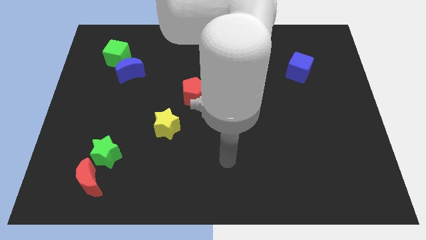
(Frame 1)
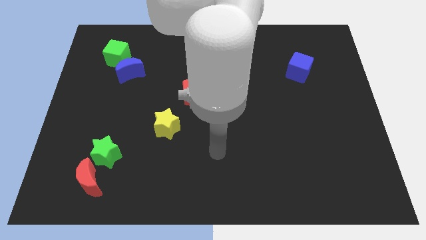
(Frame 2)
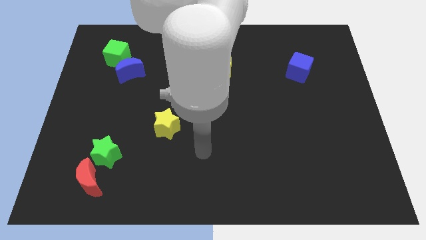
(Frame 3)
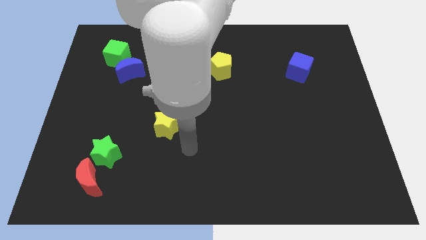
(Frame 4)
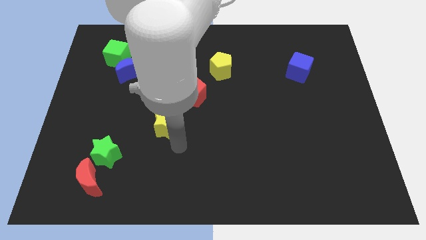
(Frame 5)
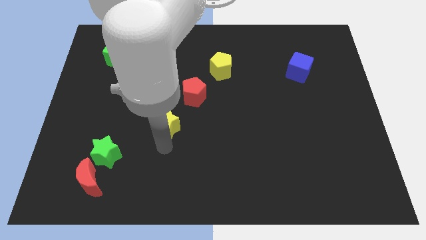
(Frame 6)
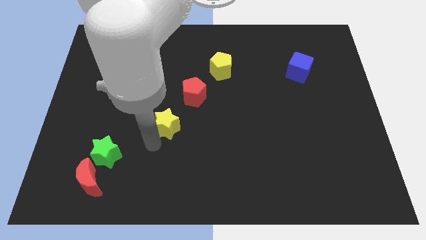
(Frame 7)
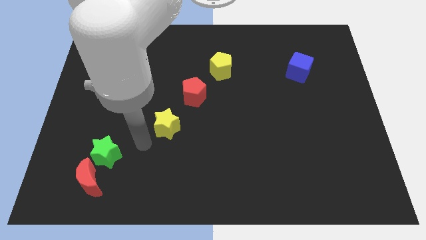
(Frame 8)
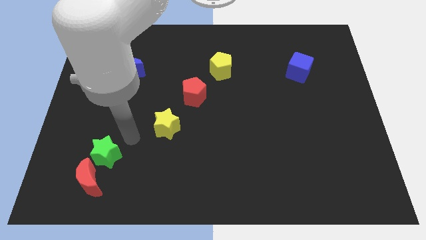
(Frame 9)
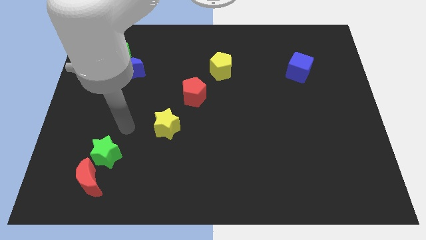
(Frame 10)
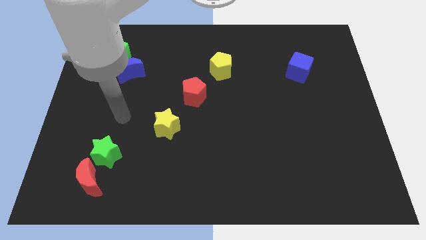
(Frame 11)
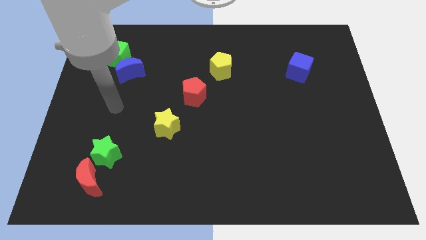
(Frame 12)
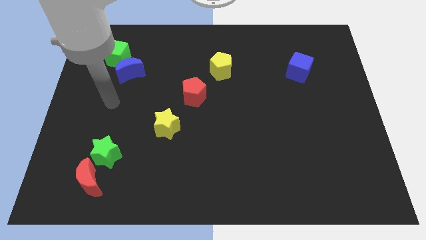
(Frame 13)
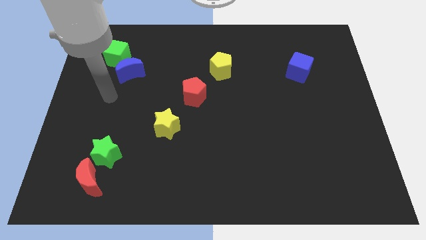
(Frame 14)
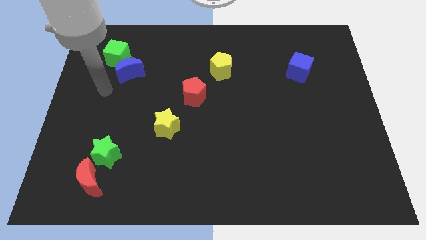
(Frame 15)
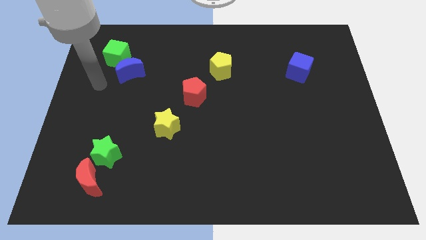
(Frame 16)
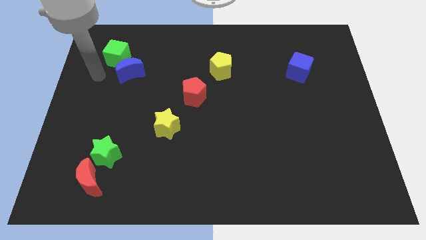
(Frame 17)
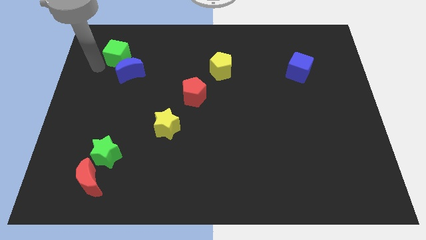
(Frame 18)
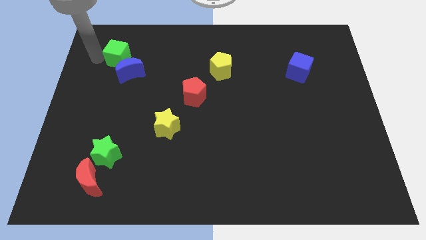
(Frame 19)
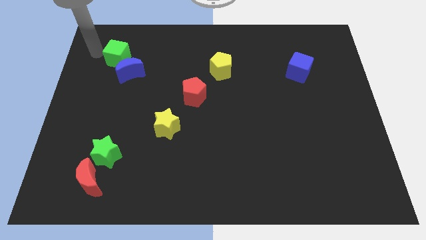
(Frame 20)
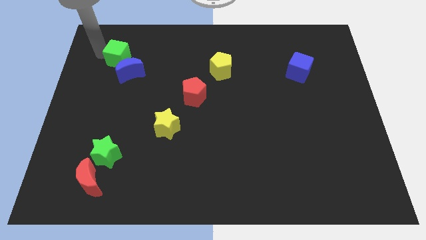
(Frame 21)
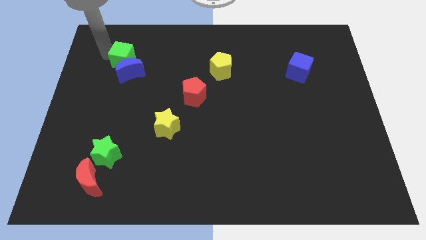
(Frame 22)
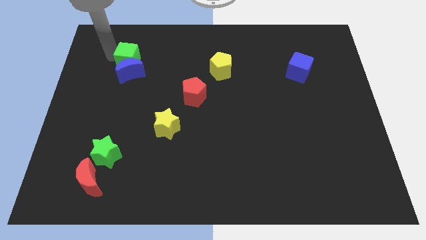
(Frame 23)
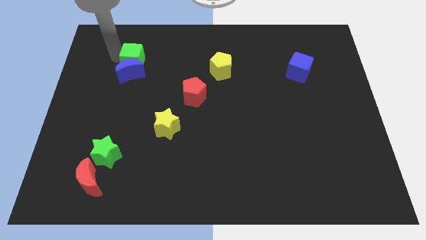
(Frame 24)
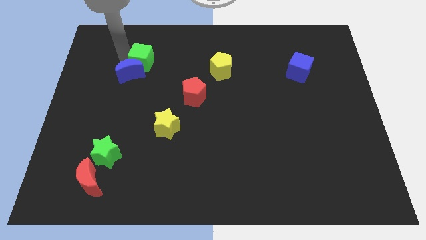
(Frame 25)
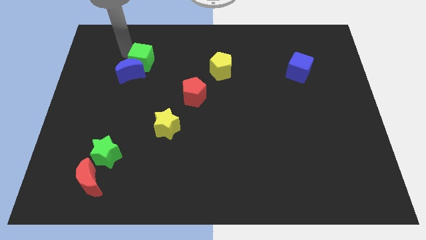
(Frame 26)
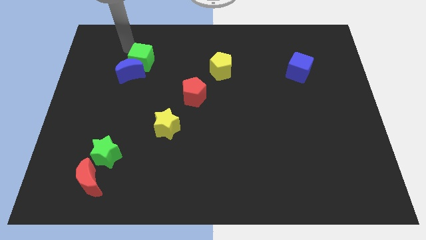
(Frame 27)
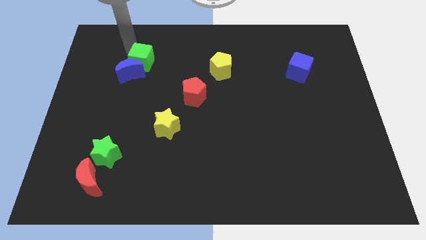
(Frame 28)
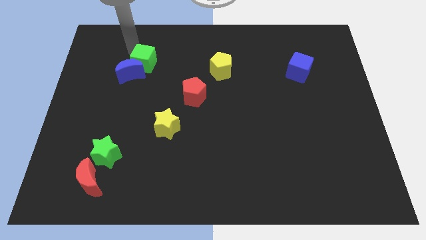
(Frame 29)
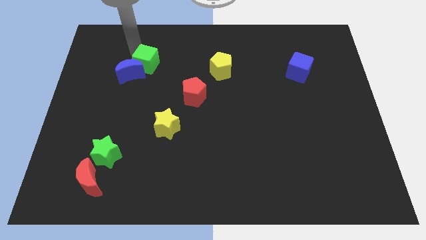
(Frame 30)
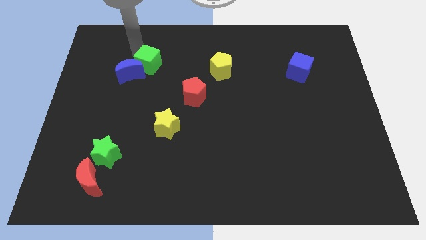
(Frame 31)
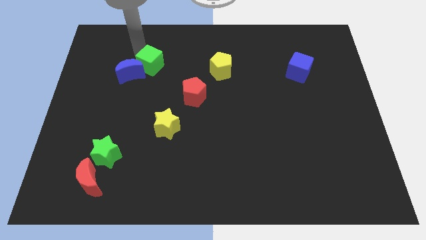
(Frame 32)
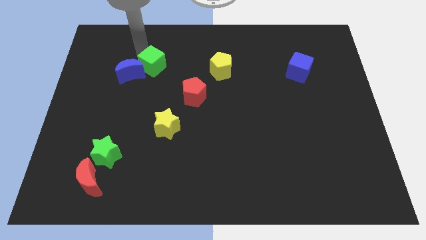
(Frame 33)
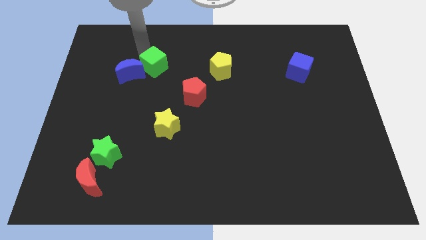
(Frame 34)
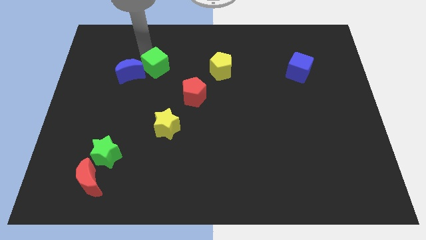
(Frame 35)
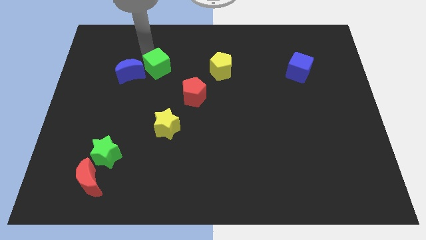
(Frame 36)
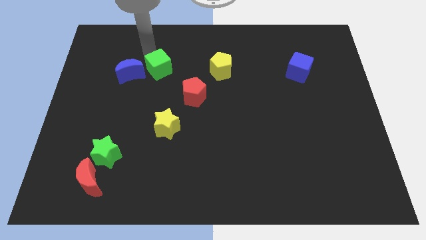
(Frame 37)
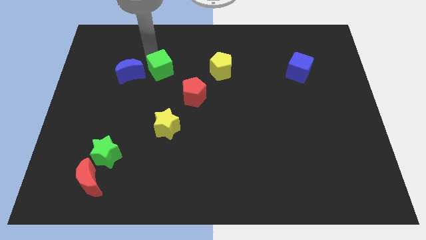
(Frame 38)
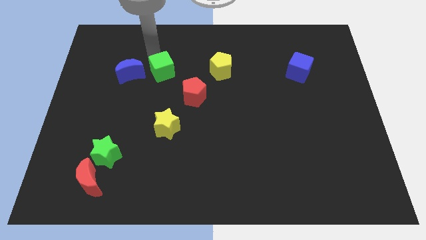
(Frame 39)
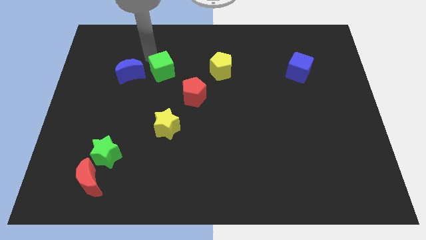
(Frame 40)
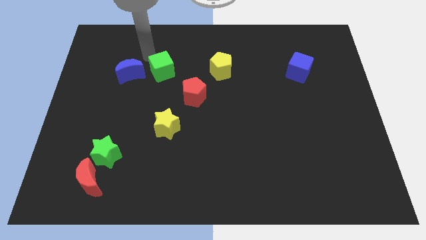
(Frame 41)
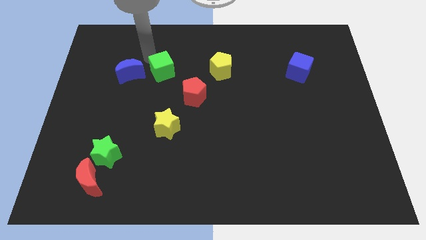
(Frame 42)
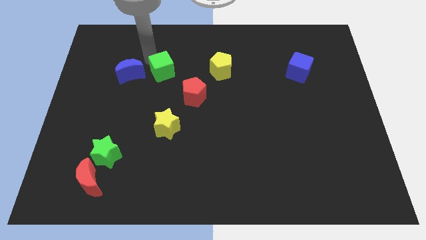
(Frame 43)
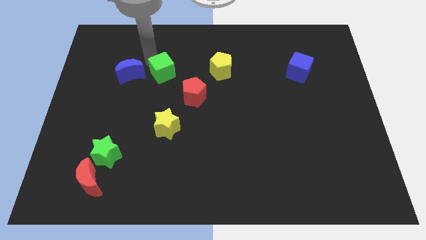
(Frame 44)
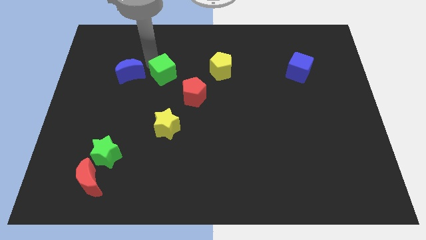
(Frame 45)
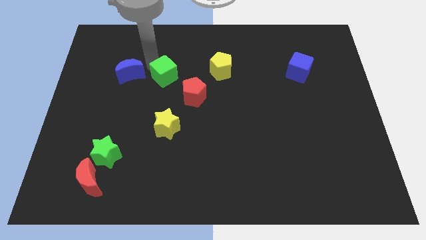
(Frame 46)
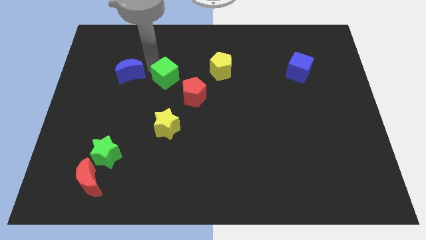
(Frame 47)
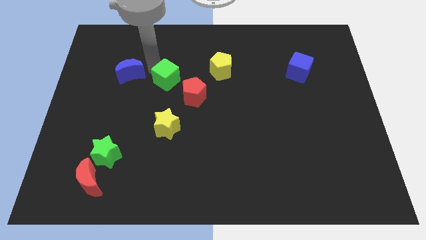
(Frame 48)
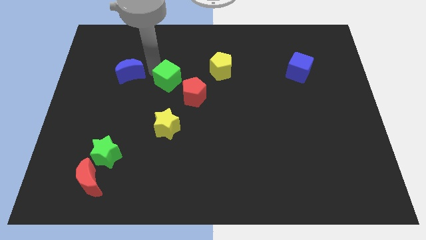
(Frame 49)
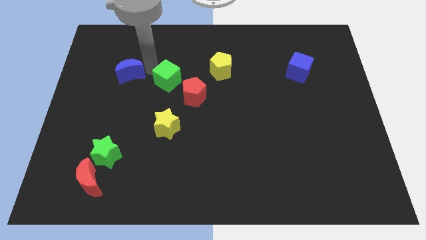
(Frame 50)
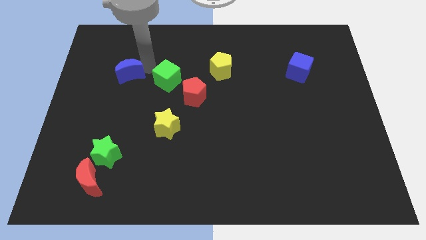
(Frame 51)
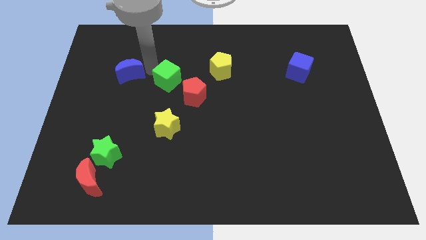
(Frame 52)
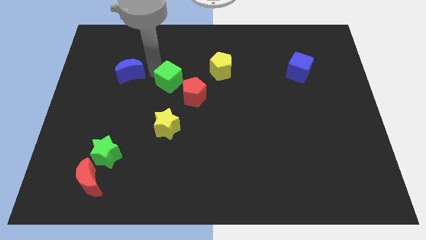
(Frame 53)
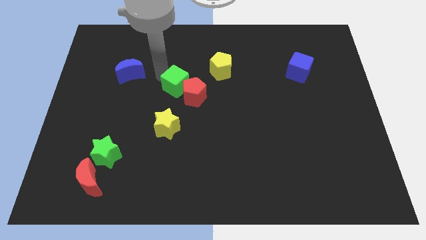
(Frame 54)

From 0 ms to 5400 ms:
put the green cube close to the red pentagon

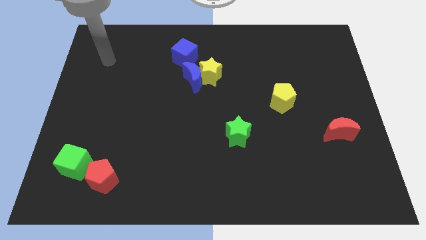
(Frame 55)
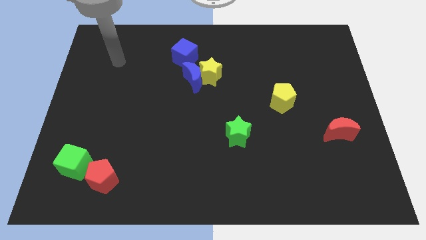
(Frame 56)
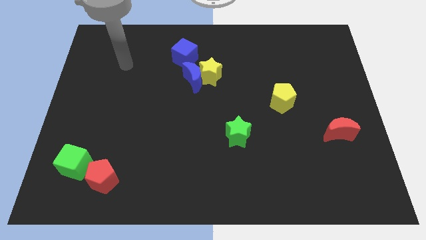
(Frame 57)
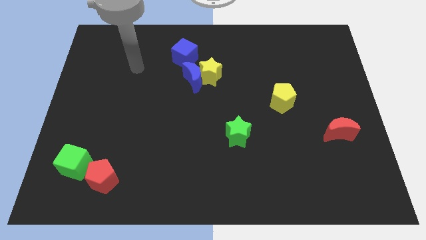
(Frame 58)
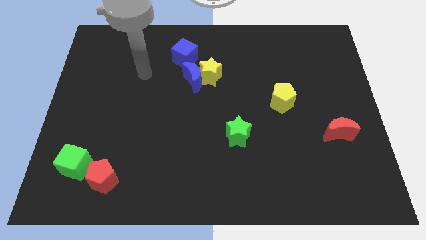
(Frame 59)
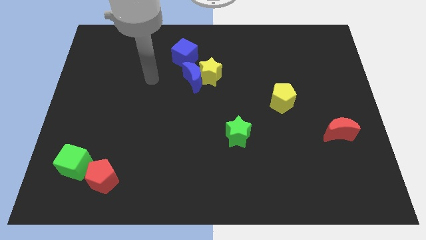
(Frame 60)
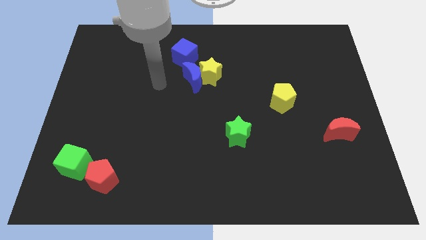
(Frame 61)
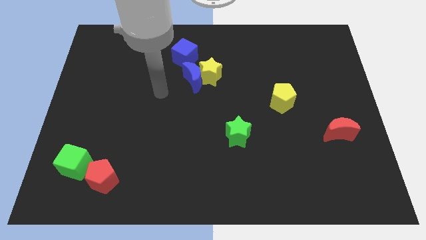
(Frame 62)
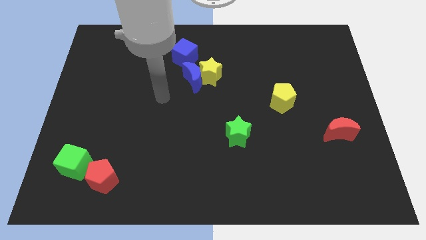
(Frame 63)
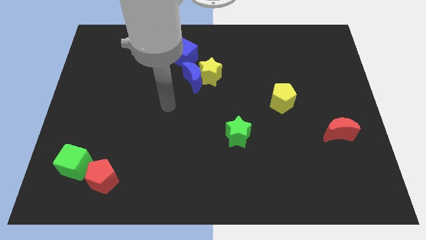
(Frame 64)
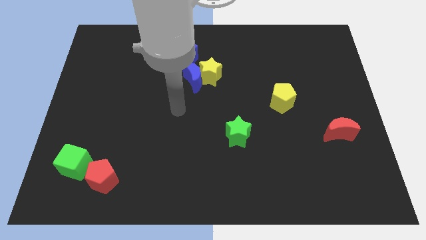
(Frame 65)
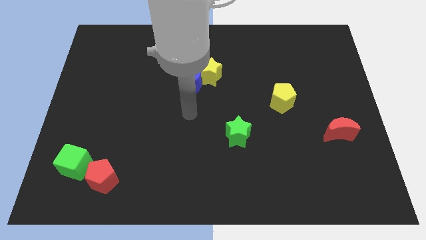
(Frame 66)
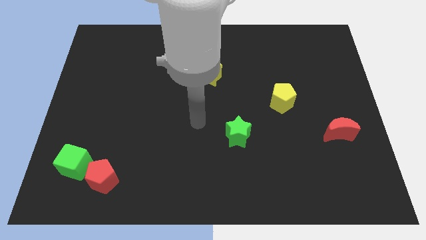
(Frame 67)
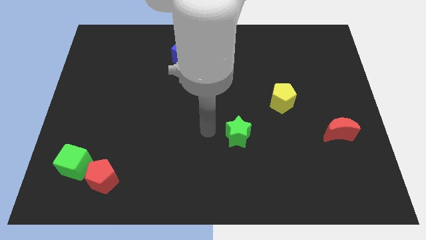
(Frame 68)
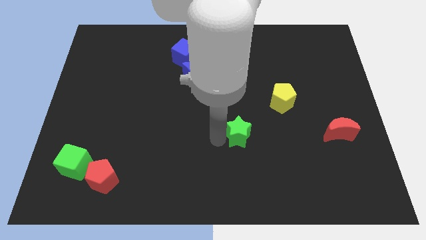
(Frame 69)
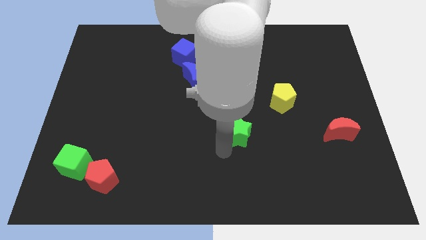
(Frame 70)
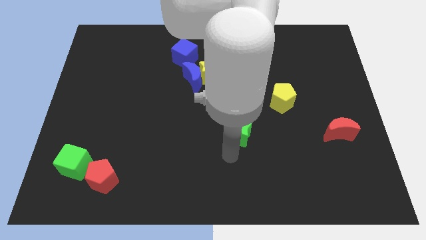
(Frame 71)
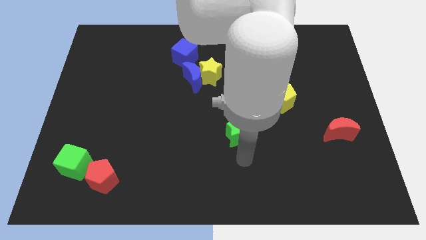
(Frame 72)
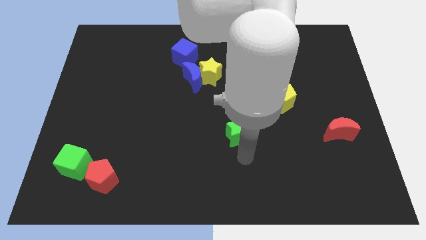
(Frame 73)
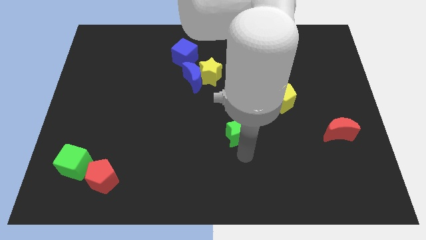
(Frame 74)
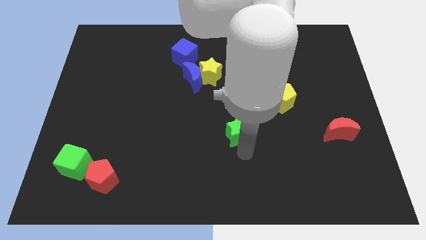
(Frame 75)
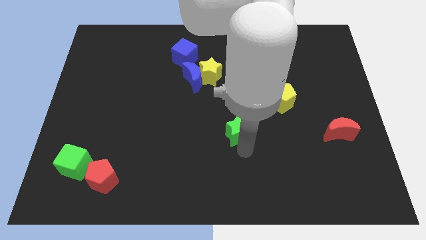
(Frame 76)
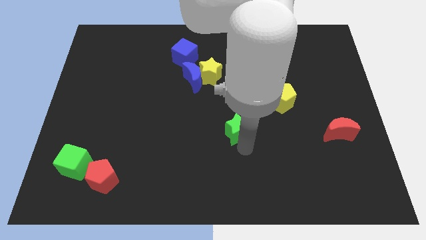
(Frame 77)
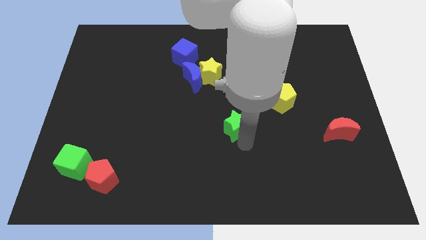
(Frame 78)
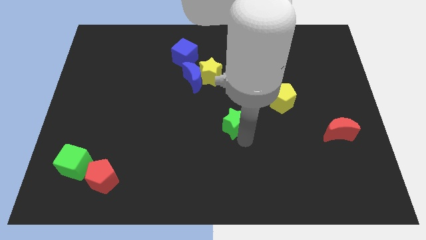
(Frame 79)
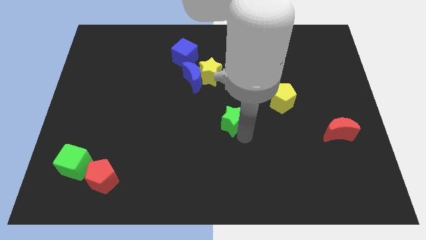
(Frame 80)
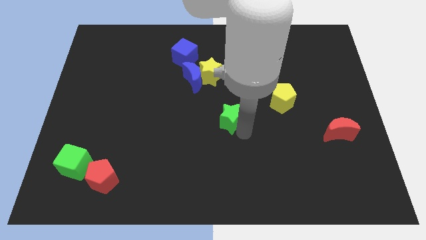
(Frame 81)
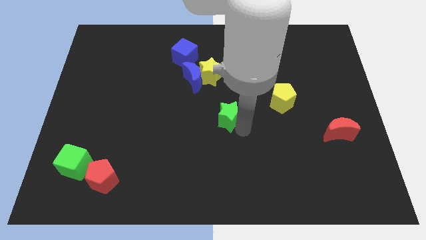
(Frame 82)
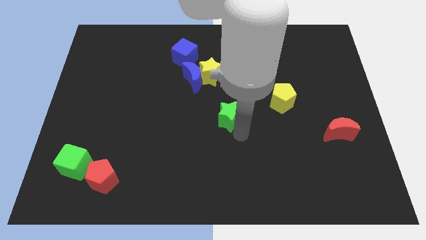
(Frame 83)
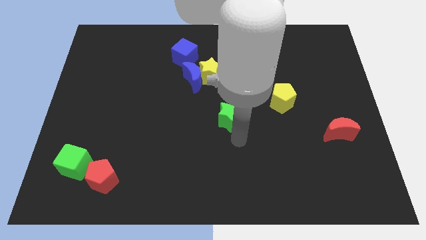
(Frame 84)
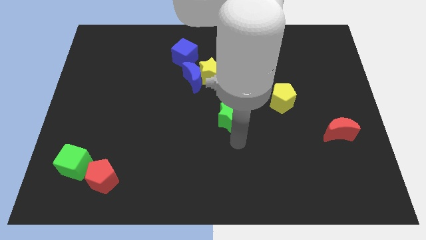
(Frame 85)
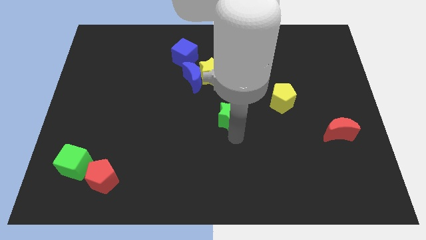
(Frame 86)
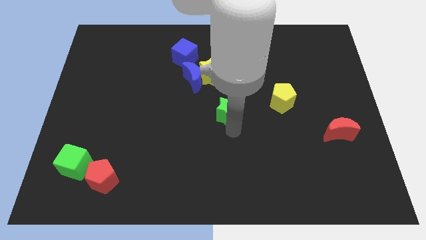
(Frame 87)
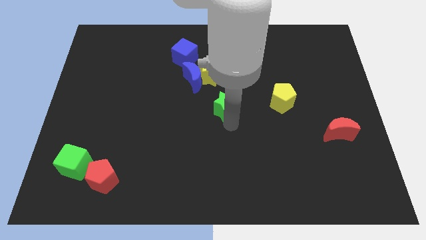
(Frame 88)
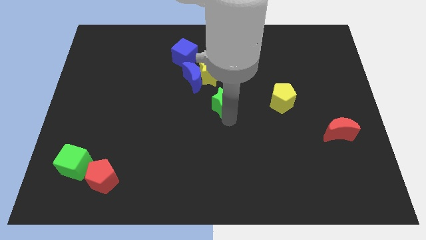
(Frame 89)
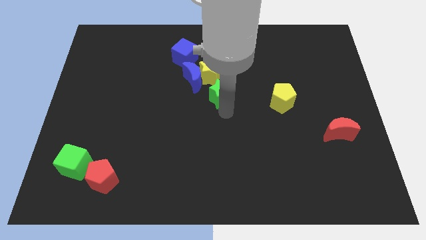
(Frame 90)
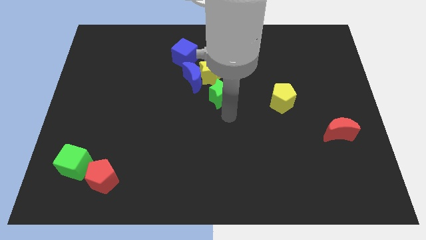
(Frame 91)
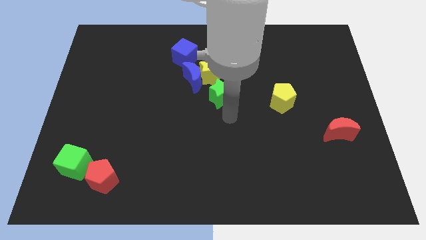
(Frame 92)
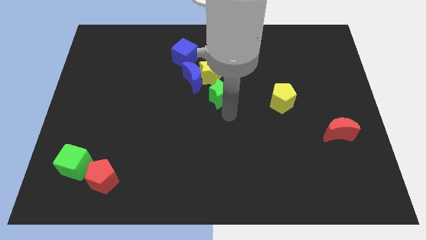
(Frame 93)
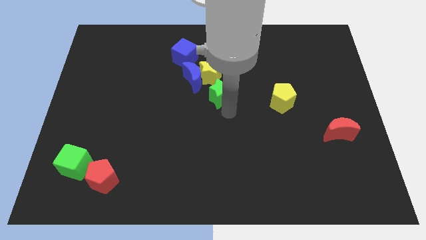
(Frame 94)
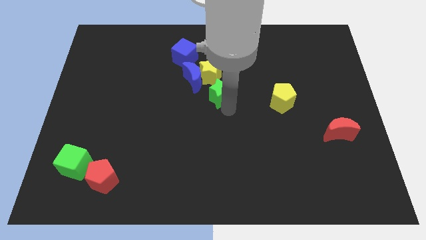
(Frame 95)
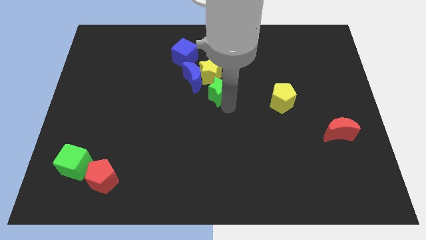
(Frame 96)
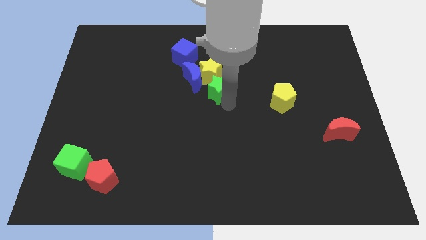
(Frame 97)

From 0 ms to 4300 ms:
put the green star towards the yellow star
